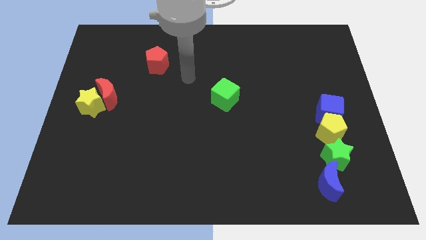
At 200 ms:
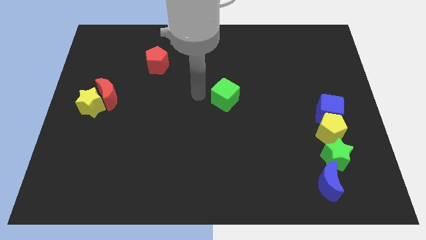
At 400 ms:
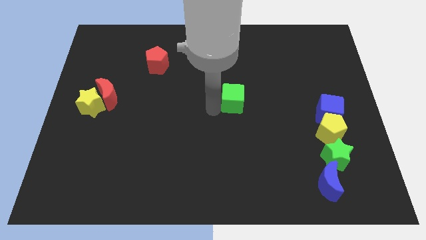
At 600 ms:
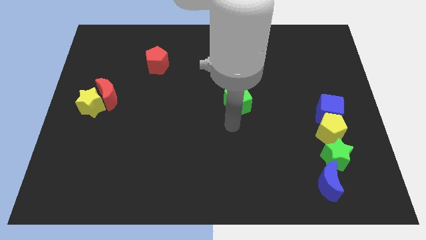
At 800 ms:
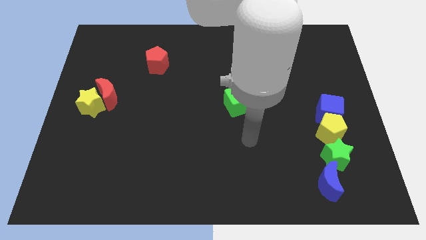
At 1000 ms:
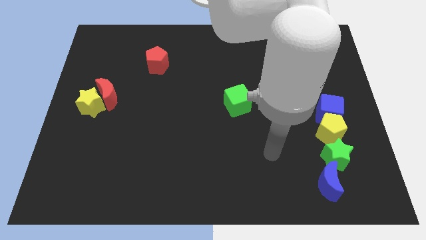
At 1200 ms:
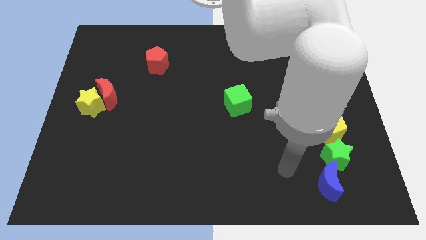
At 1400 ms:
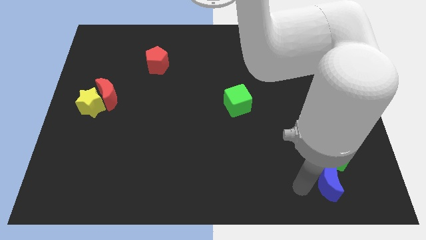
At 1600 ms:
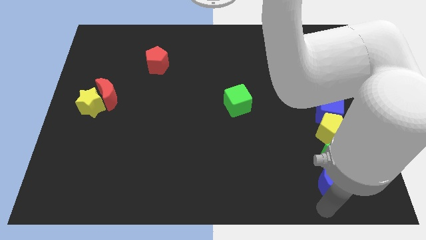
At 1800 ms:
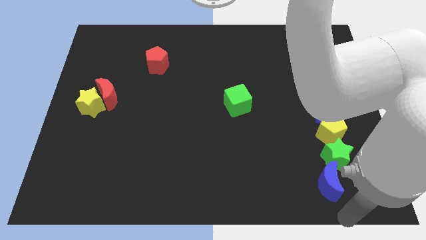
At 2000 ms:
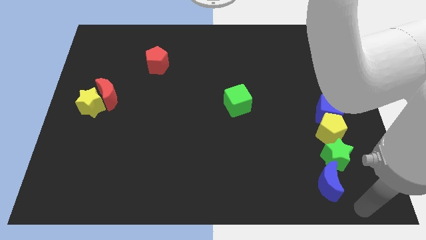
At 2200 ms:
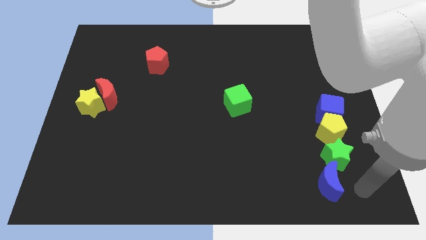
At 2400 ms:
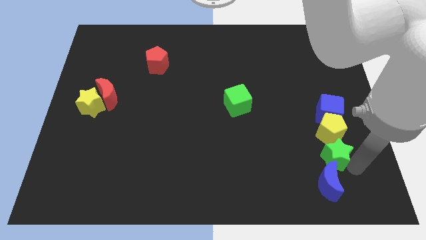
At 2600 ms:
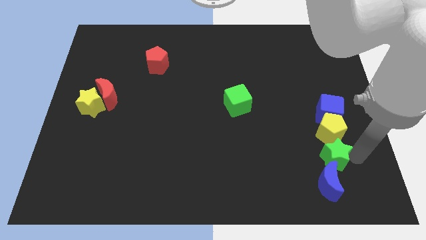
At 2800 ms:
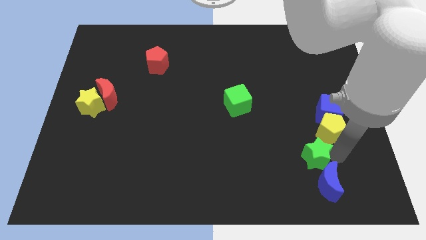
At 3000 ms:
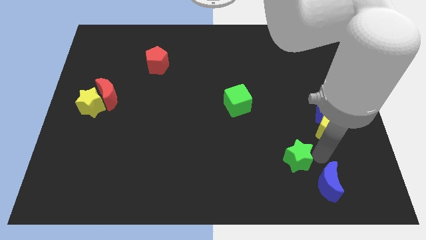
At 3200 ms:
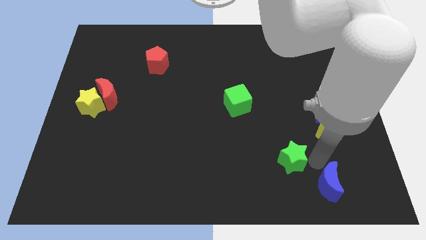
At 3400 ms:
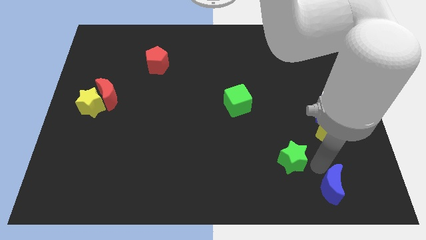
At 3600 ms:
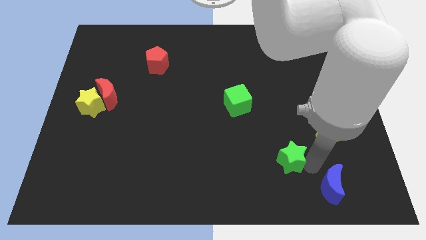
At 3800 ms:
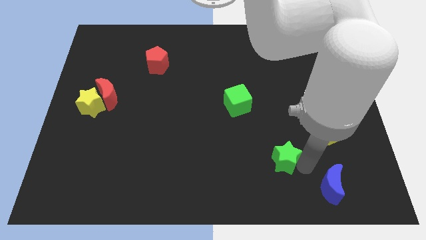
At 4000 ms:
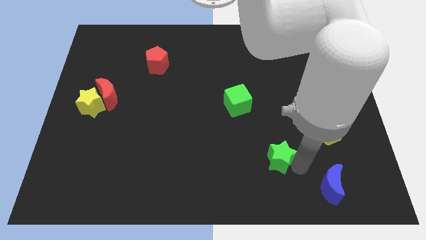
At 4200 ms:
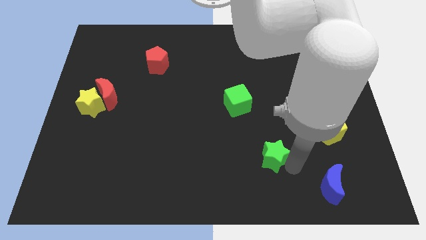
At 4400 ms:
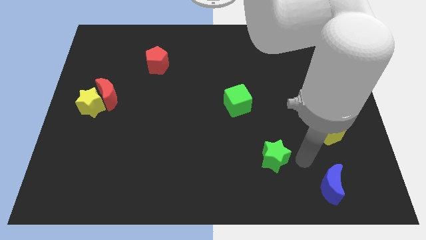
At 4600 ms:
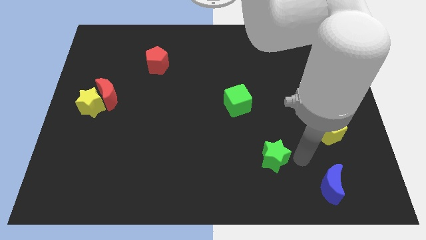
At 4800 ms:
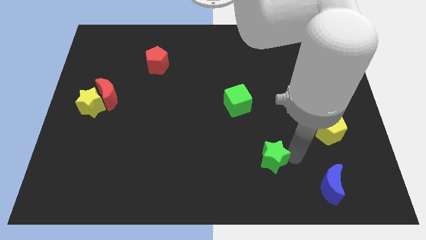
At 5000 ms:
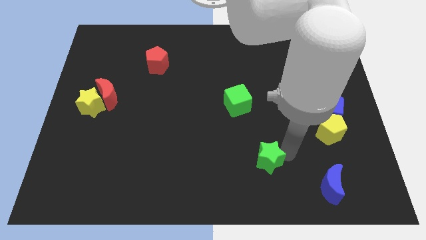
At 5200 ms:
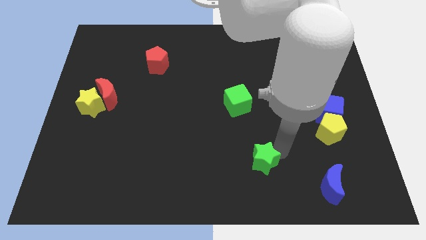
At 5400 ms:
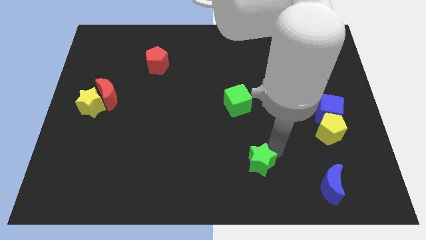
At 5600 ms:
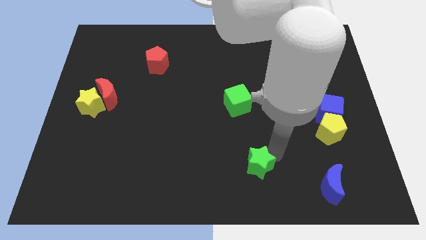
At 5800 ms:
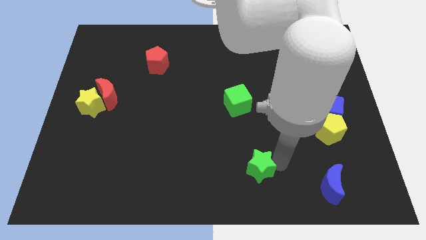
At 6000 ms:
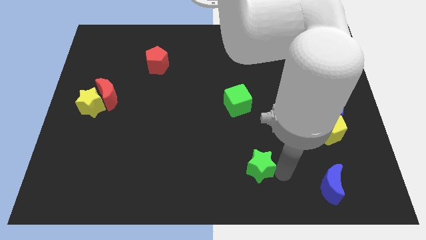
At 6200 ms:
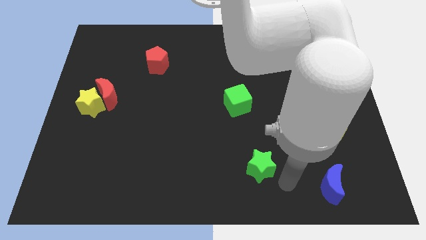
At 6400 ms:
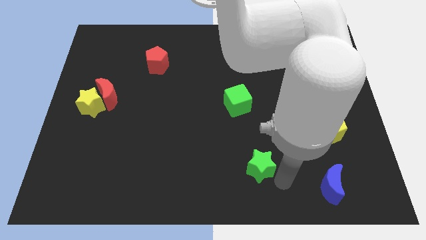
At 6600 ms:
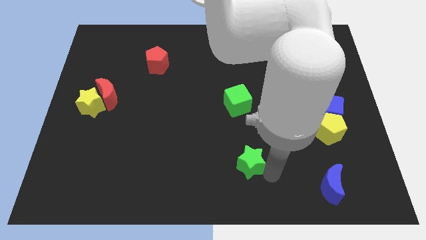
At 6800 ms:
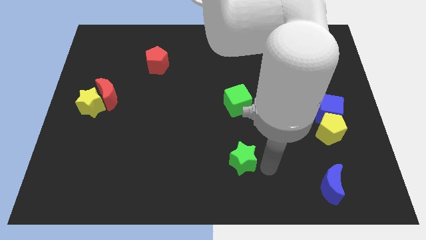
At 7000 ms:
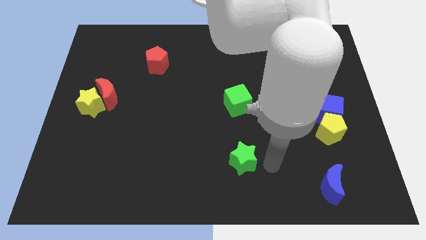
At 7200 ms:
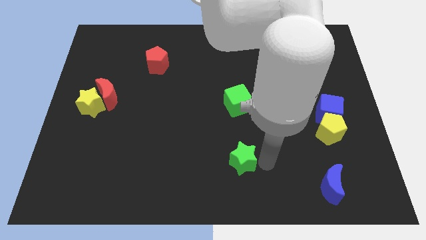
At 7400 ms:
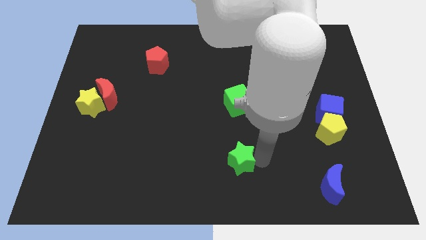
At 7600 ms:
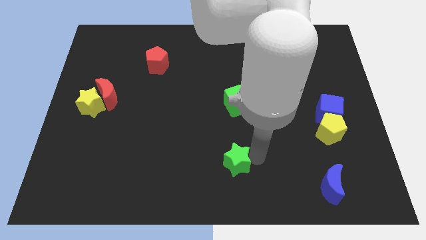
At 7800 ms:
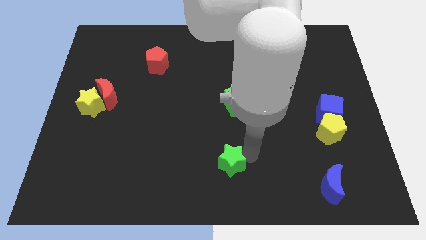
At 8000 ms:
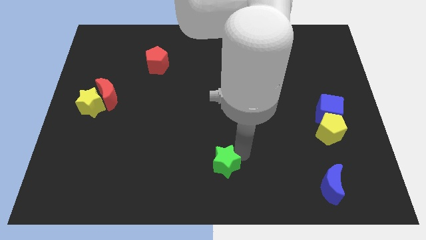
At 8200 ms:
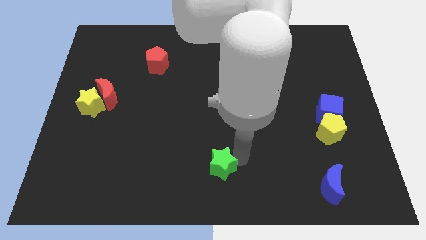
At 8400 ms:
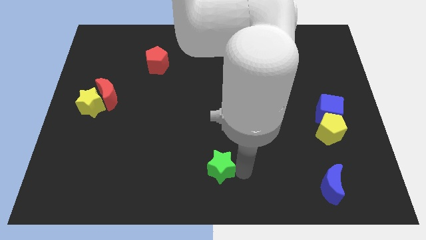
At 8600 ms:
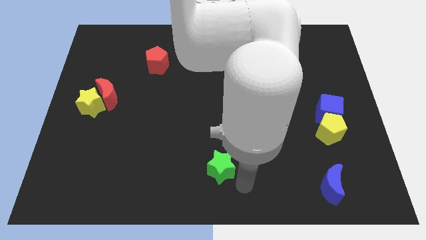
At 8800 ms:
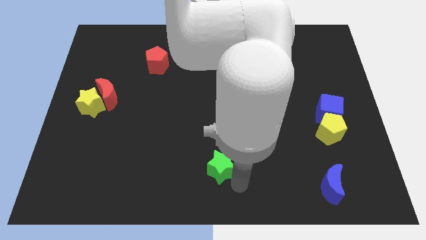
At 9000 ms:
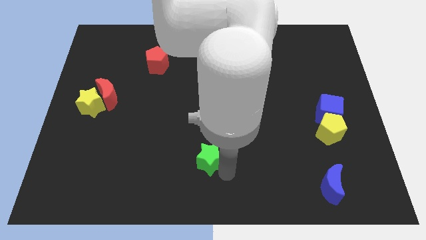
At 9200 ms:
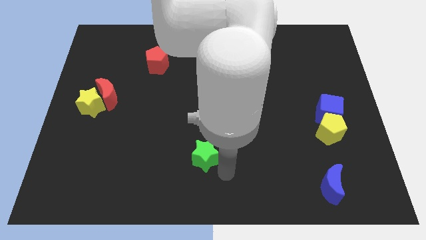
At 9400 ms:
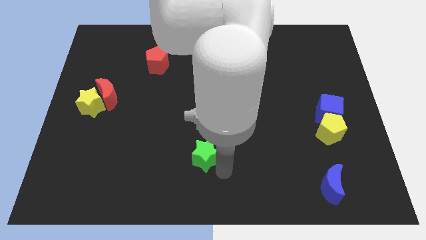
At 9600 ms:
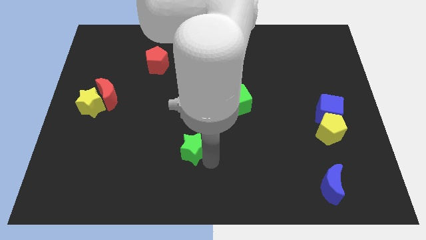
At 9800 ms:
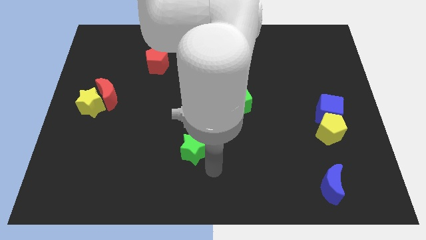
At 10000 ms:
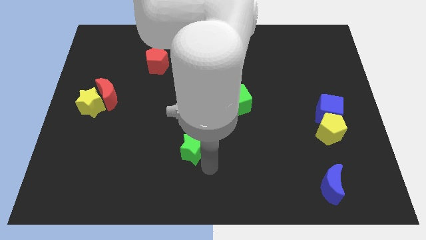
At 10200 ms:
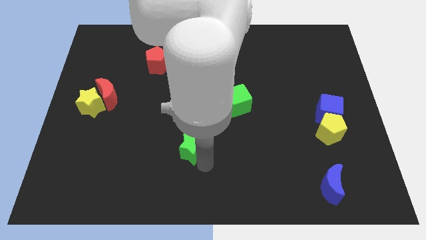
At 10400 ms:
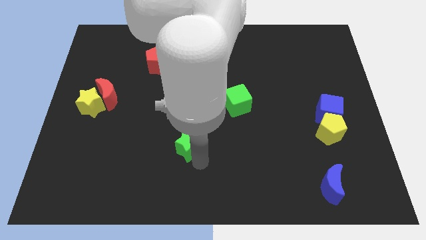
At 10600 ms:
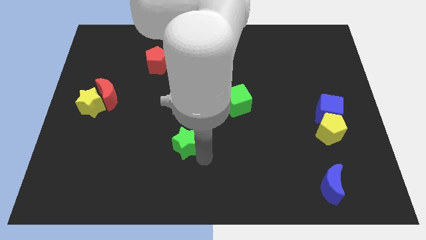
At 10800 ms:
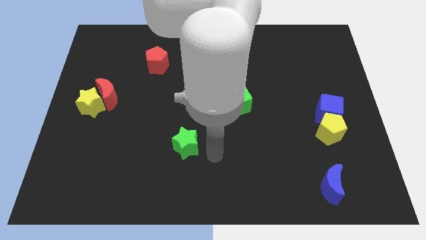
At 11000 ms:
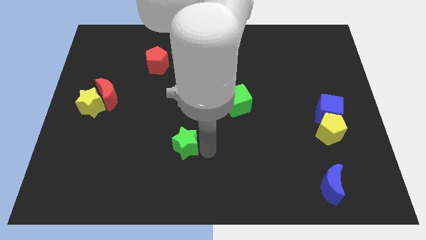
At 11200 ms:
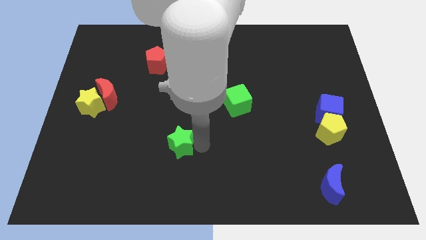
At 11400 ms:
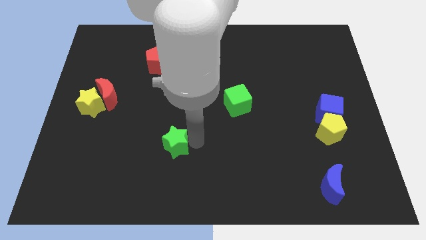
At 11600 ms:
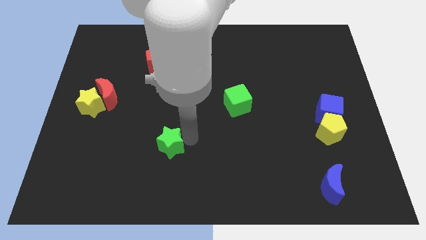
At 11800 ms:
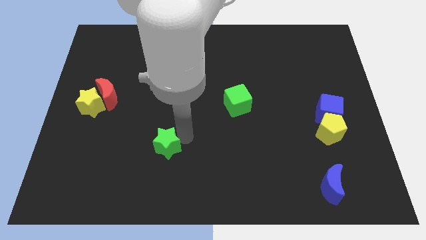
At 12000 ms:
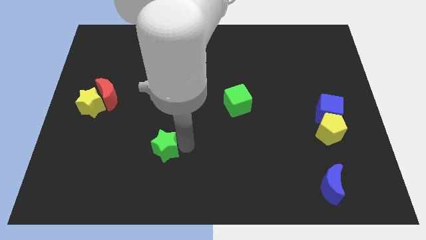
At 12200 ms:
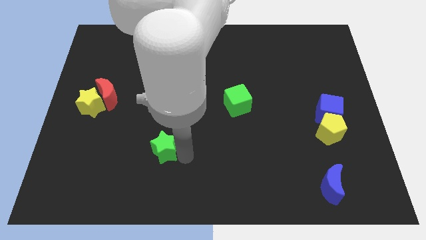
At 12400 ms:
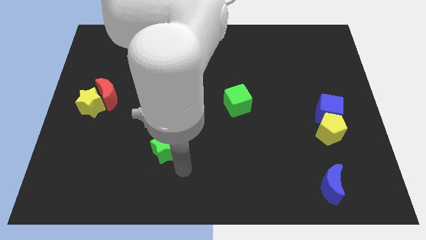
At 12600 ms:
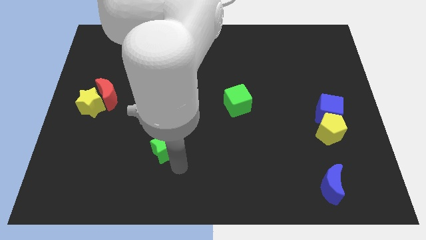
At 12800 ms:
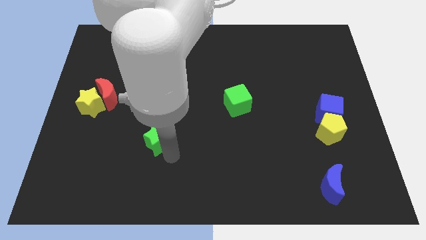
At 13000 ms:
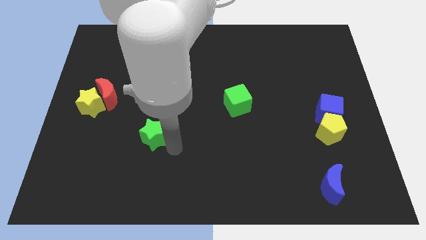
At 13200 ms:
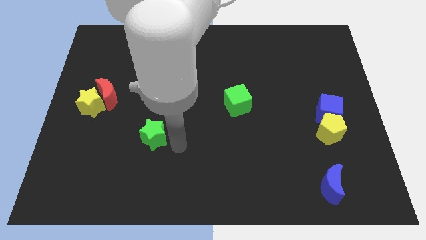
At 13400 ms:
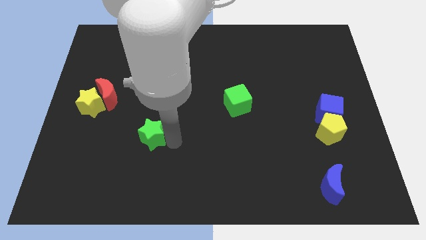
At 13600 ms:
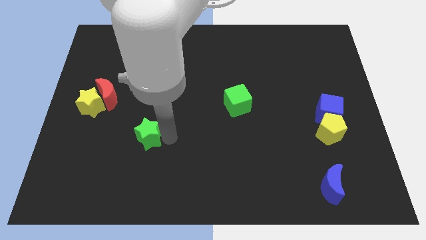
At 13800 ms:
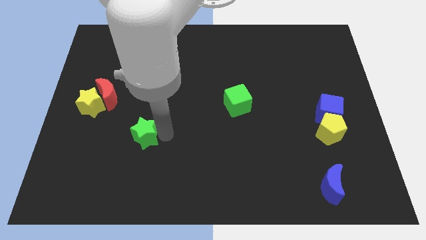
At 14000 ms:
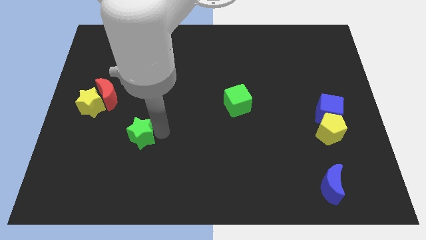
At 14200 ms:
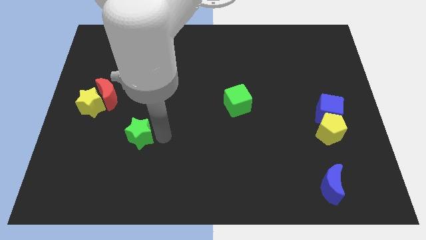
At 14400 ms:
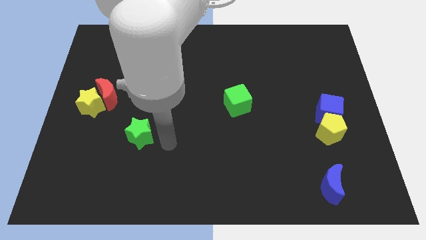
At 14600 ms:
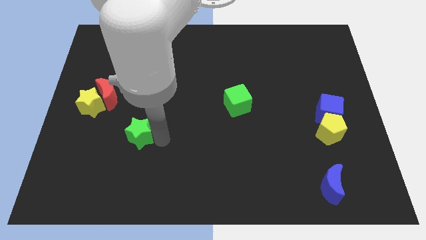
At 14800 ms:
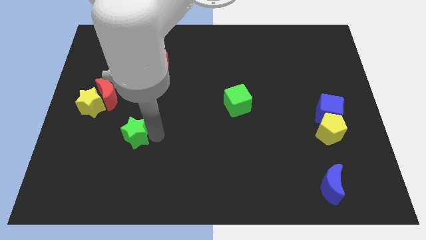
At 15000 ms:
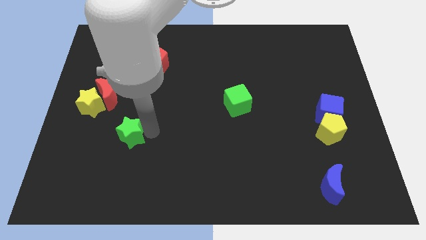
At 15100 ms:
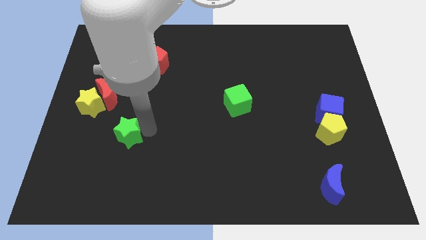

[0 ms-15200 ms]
push the green star to the bottom right side of the yellow star
